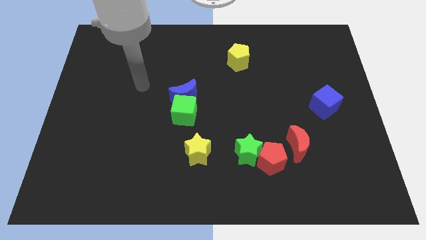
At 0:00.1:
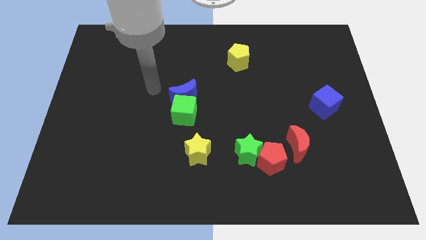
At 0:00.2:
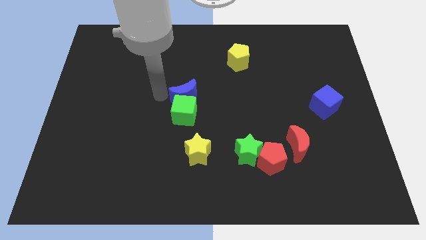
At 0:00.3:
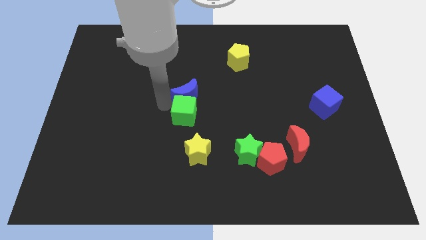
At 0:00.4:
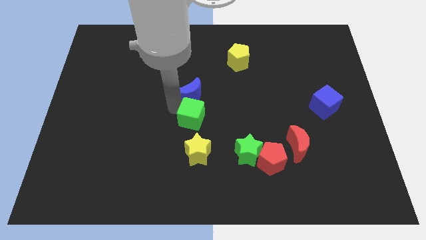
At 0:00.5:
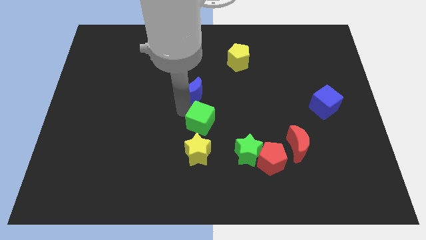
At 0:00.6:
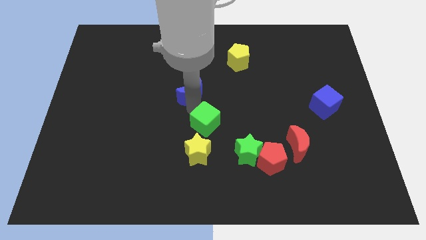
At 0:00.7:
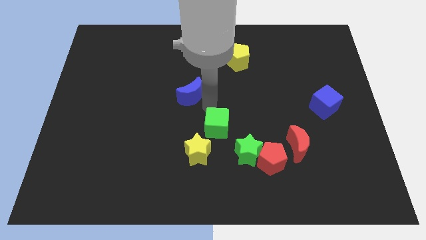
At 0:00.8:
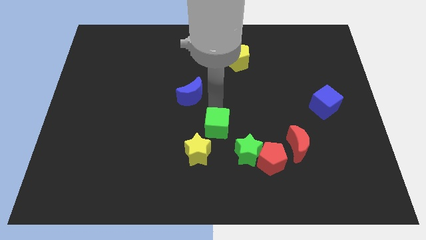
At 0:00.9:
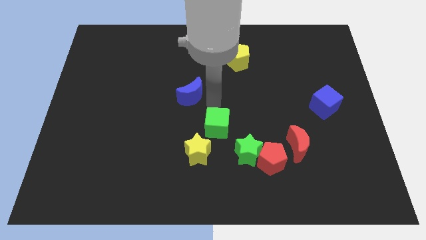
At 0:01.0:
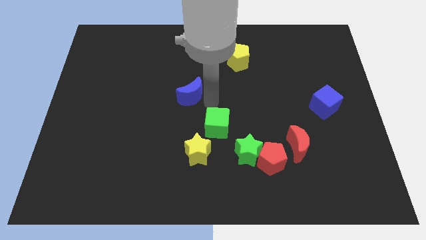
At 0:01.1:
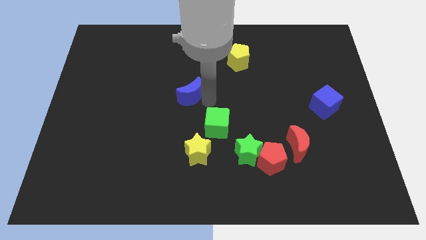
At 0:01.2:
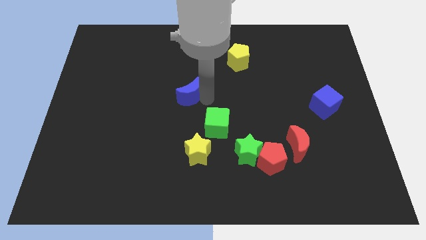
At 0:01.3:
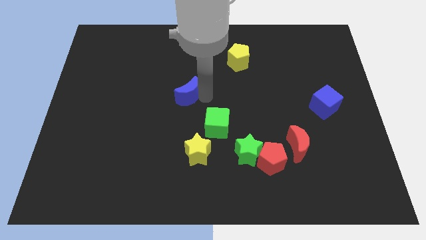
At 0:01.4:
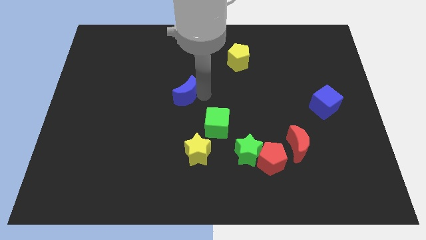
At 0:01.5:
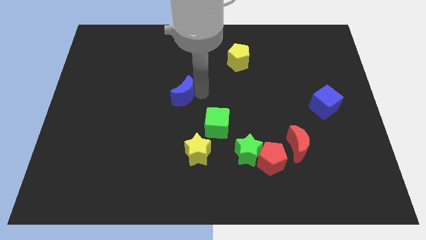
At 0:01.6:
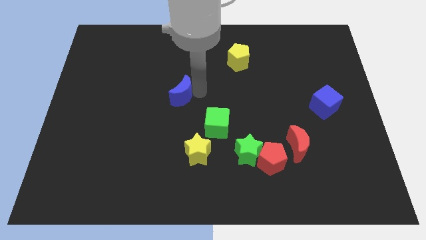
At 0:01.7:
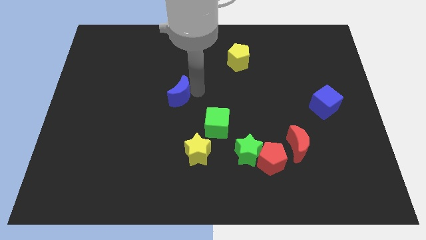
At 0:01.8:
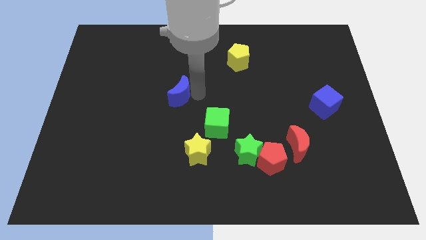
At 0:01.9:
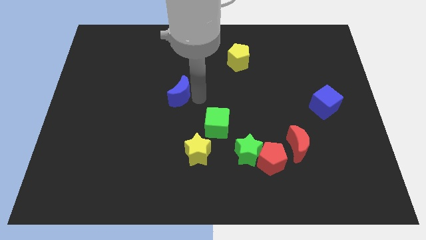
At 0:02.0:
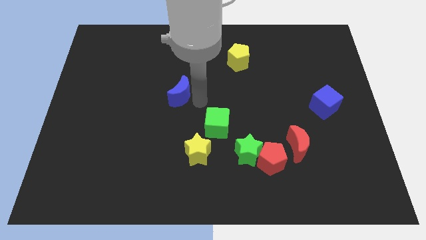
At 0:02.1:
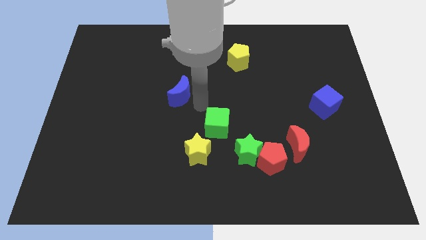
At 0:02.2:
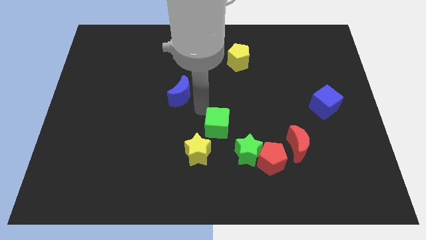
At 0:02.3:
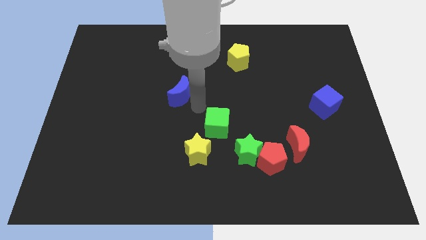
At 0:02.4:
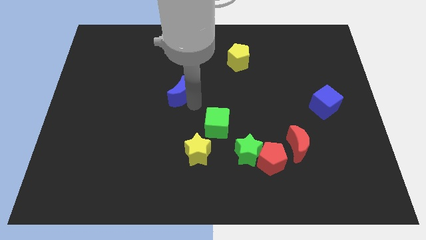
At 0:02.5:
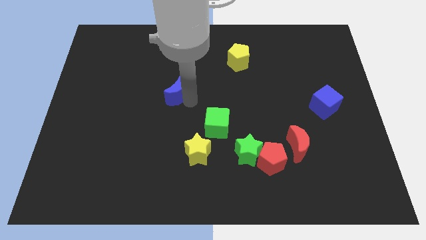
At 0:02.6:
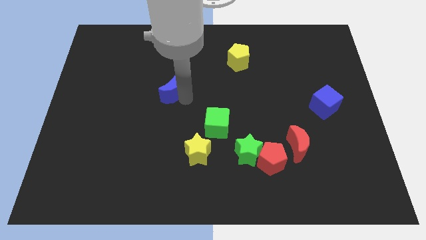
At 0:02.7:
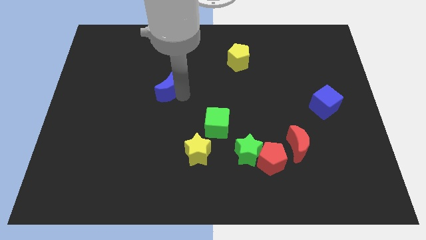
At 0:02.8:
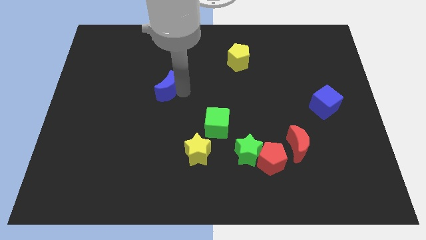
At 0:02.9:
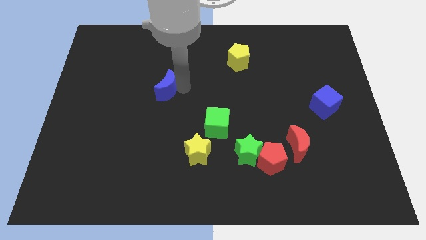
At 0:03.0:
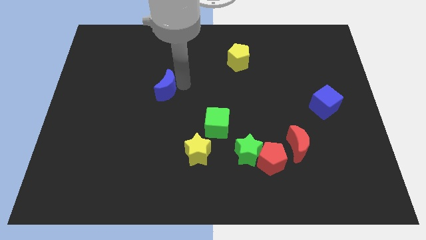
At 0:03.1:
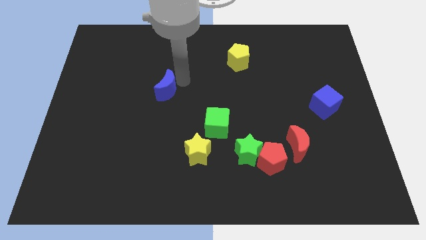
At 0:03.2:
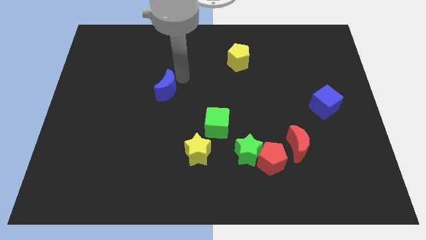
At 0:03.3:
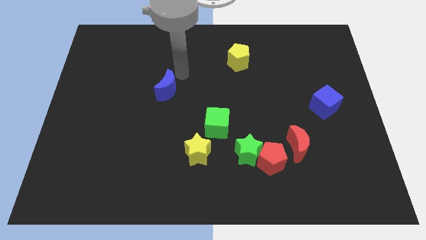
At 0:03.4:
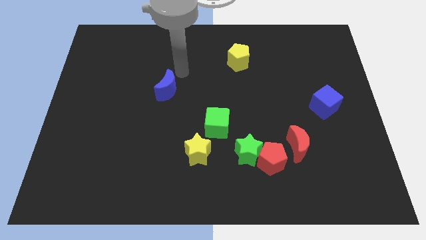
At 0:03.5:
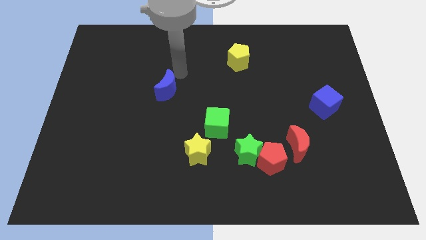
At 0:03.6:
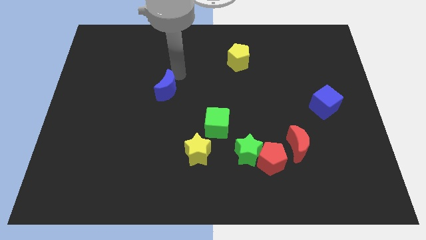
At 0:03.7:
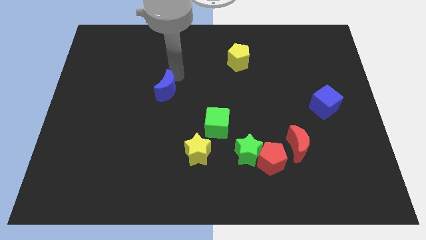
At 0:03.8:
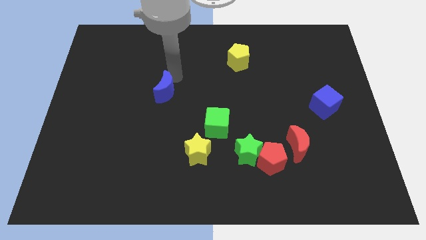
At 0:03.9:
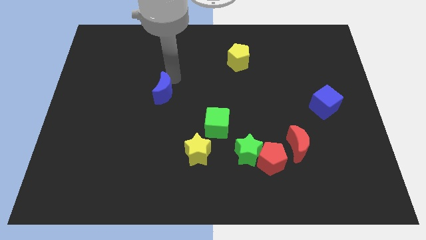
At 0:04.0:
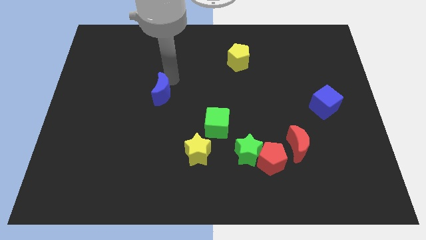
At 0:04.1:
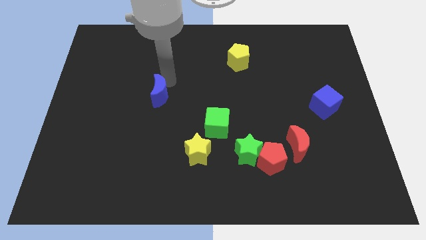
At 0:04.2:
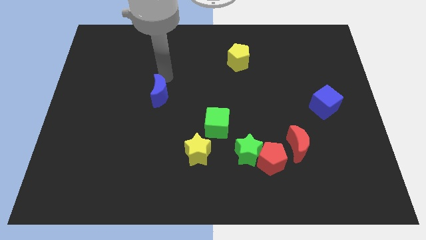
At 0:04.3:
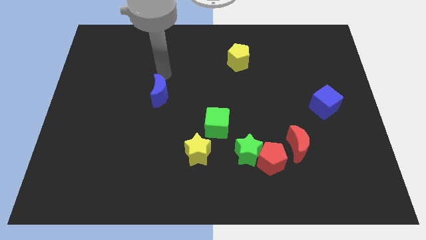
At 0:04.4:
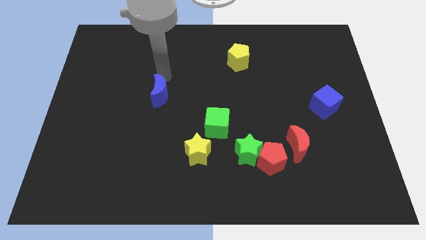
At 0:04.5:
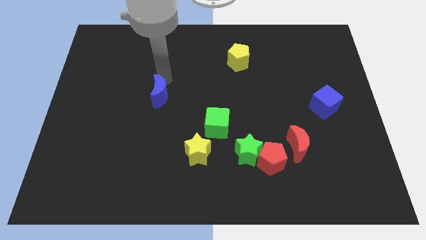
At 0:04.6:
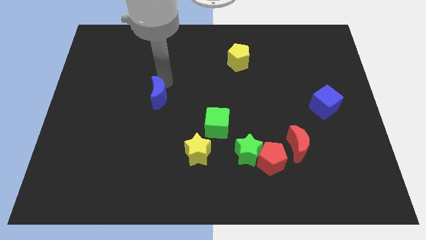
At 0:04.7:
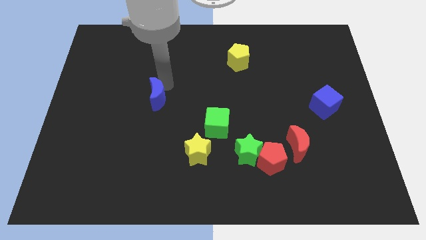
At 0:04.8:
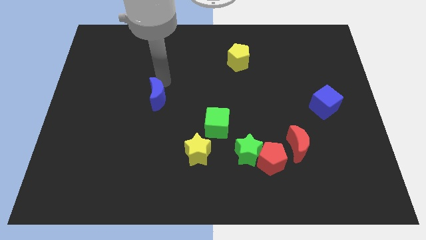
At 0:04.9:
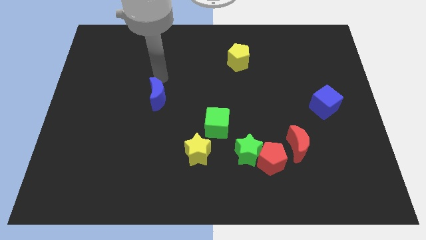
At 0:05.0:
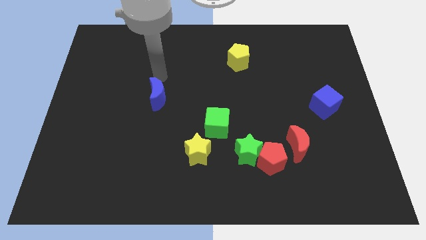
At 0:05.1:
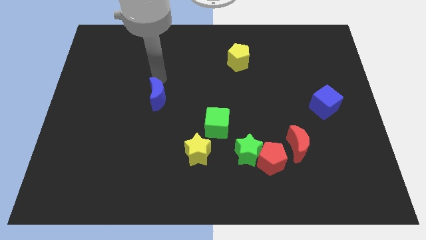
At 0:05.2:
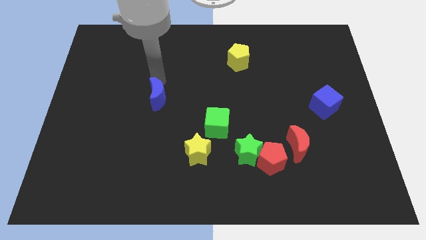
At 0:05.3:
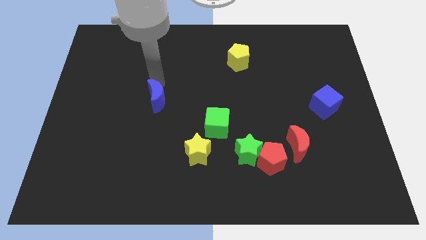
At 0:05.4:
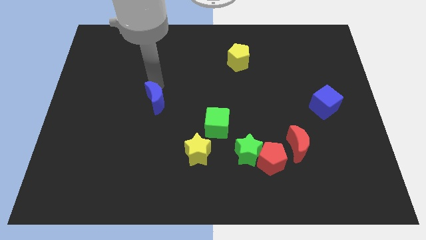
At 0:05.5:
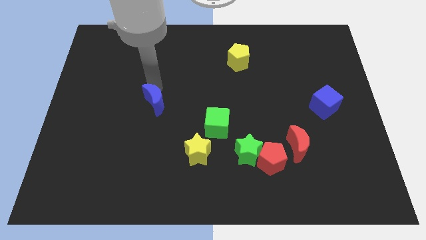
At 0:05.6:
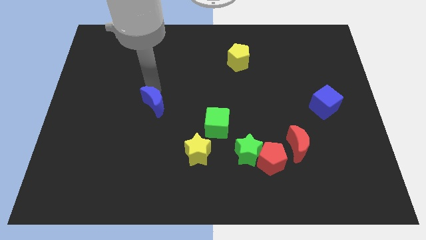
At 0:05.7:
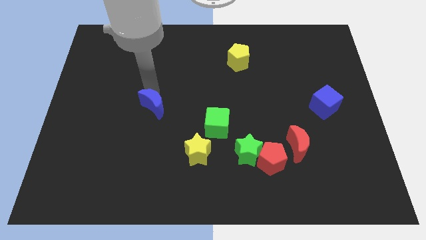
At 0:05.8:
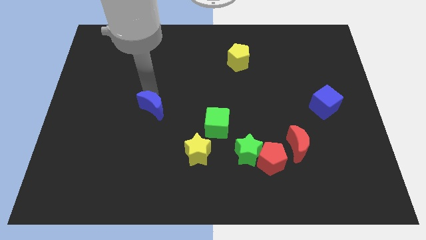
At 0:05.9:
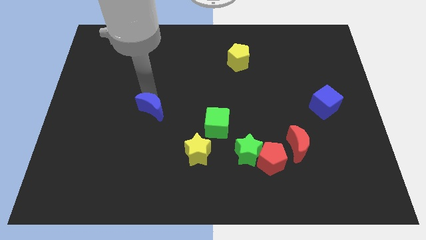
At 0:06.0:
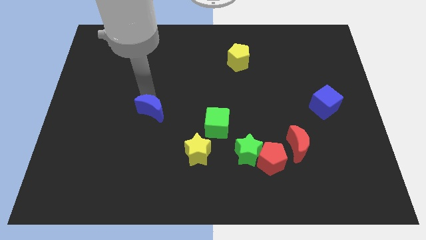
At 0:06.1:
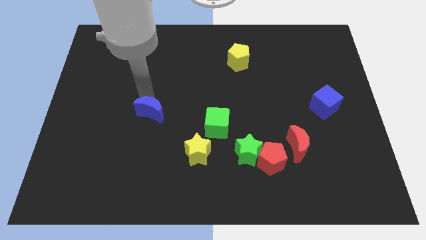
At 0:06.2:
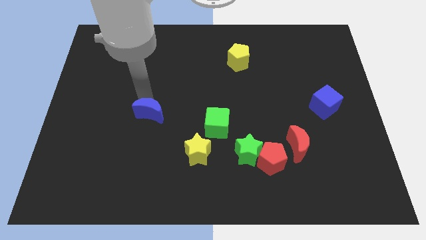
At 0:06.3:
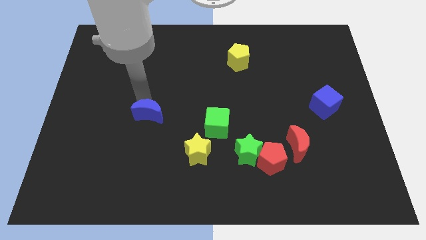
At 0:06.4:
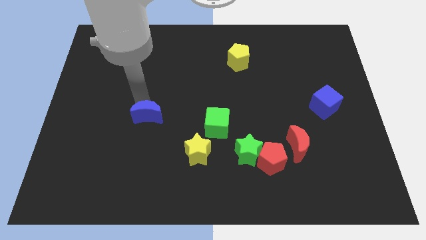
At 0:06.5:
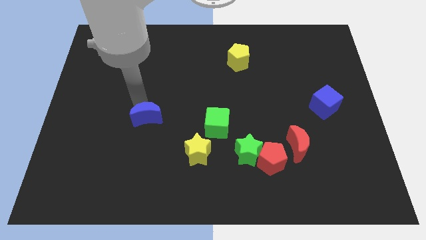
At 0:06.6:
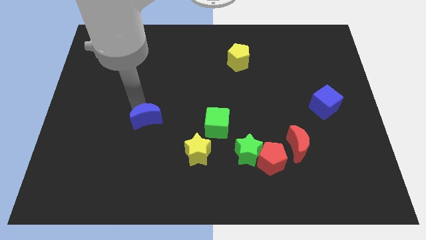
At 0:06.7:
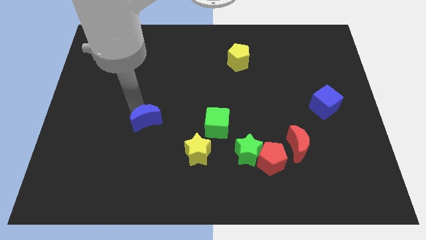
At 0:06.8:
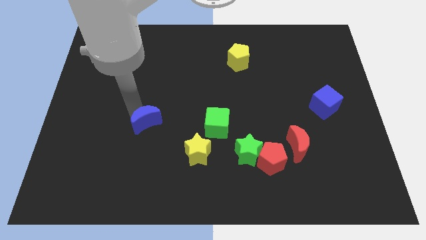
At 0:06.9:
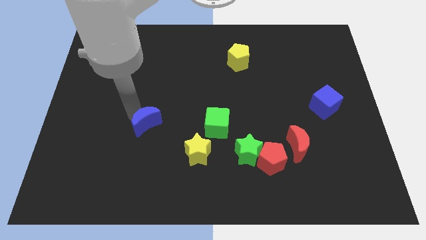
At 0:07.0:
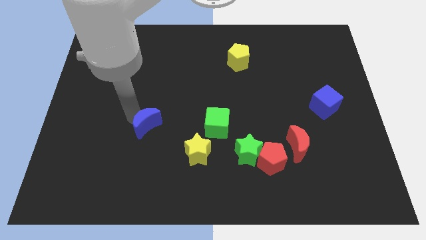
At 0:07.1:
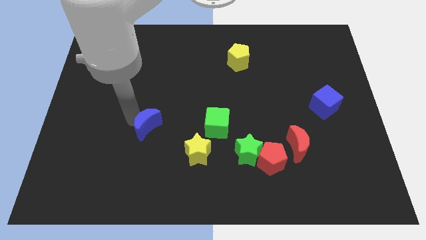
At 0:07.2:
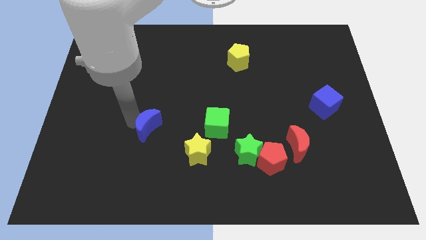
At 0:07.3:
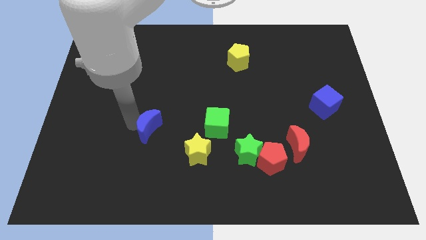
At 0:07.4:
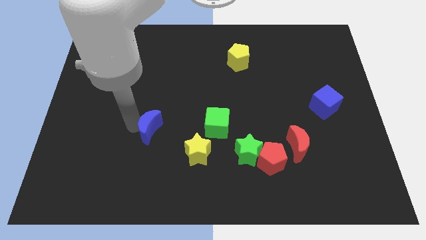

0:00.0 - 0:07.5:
push the blue moon down a little
